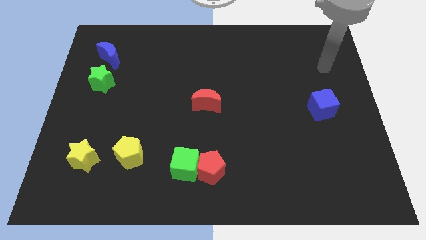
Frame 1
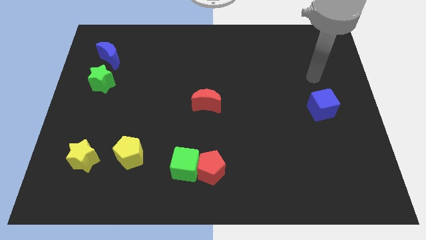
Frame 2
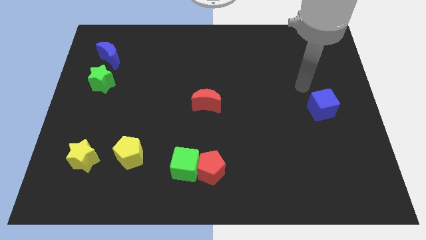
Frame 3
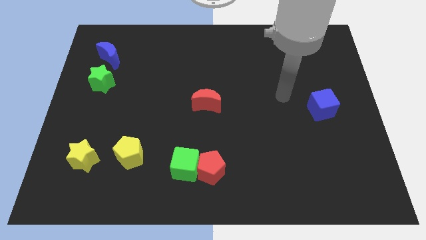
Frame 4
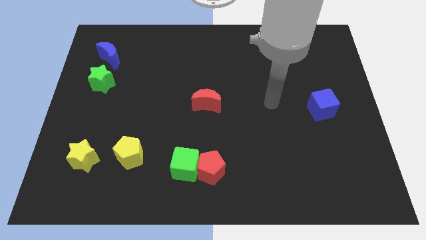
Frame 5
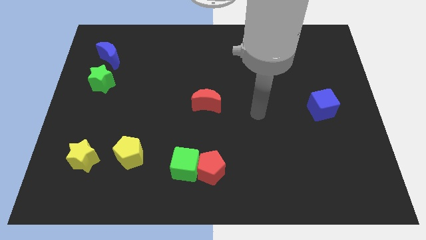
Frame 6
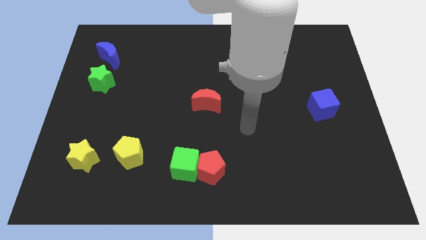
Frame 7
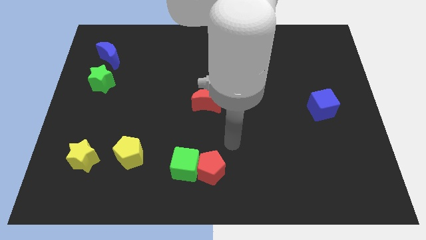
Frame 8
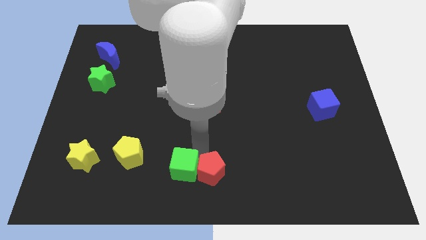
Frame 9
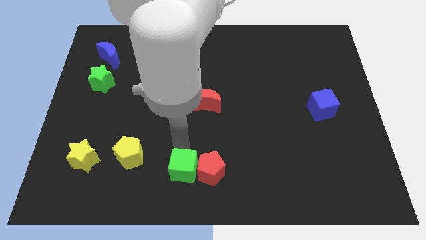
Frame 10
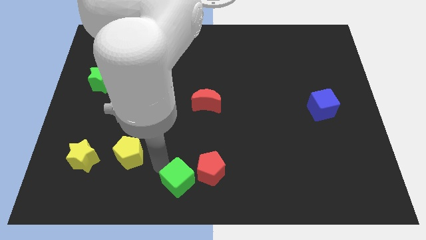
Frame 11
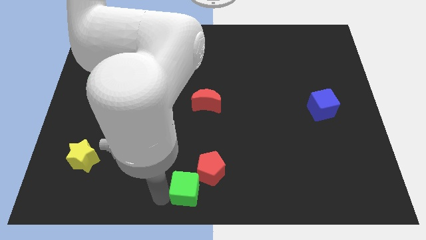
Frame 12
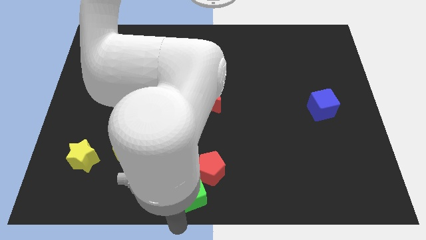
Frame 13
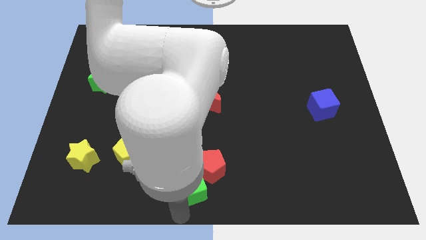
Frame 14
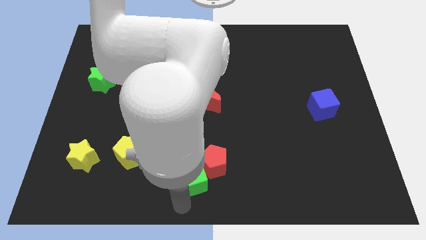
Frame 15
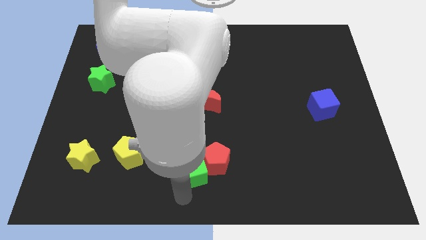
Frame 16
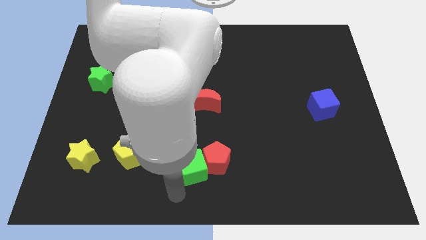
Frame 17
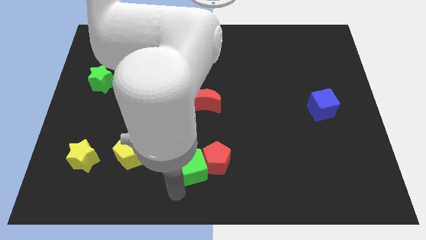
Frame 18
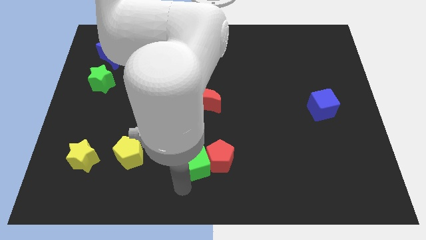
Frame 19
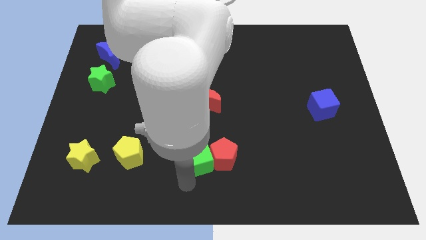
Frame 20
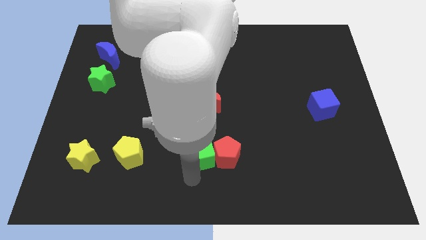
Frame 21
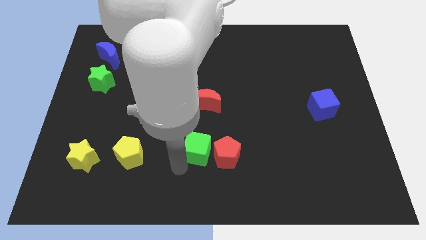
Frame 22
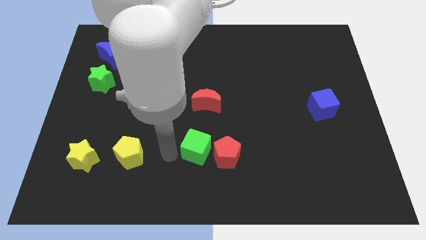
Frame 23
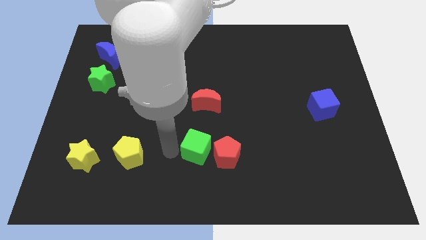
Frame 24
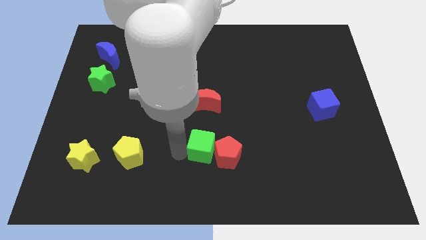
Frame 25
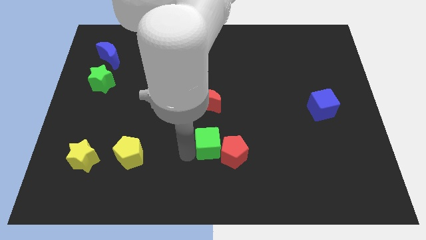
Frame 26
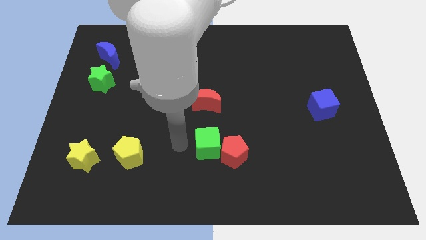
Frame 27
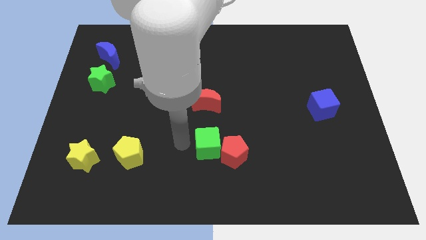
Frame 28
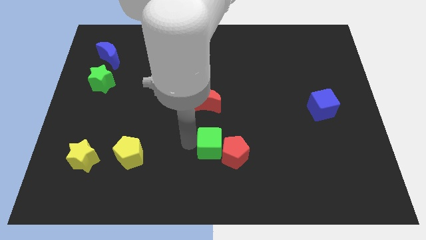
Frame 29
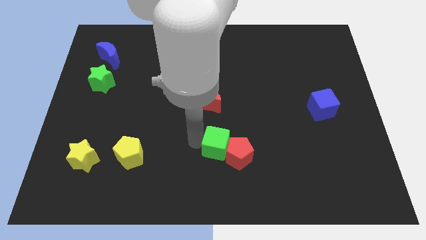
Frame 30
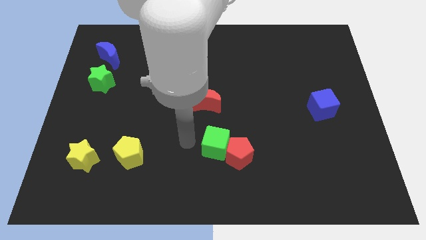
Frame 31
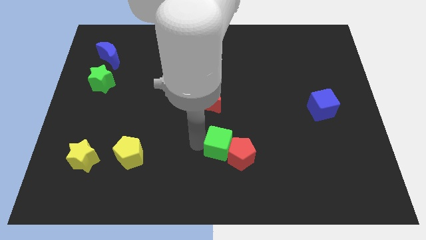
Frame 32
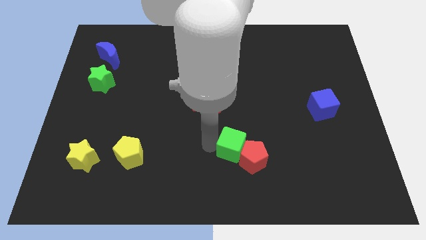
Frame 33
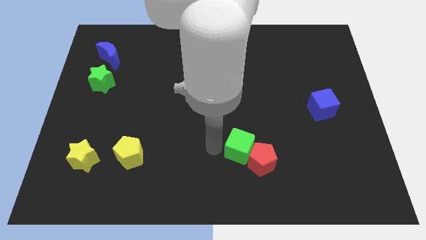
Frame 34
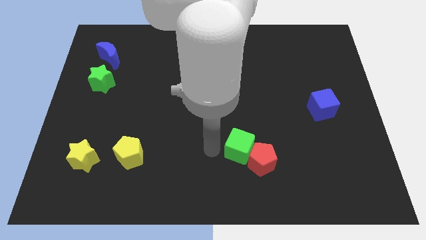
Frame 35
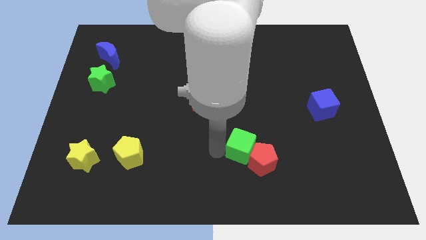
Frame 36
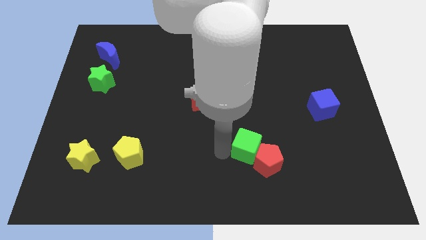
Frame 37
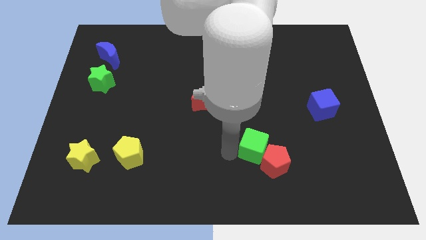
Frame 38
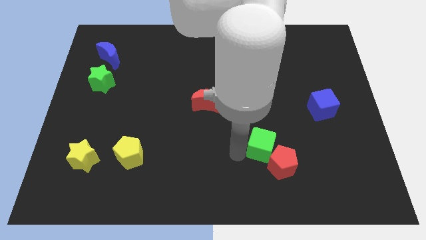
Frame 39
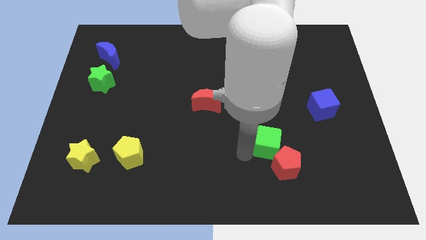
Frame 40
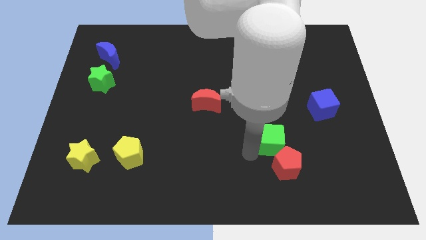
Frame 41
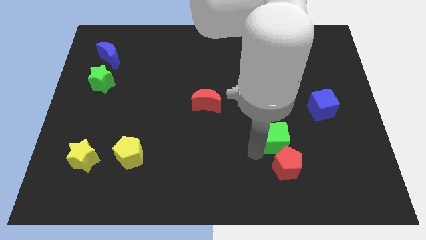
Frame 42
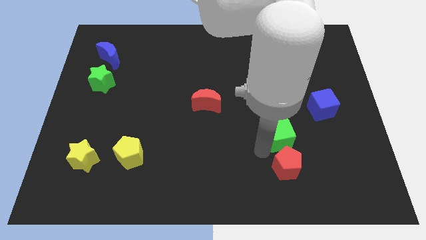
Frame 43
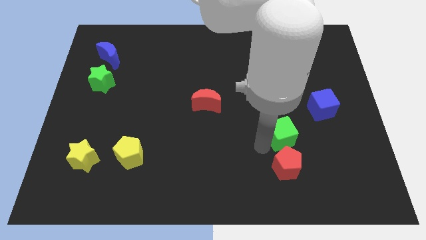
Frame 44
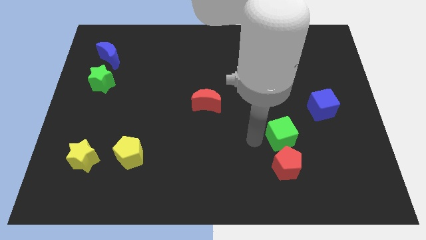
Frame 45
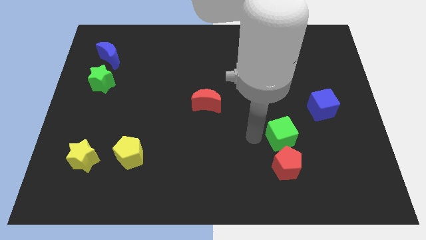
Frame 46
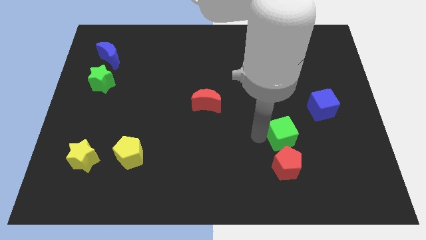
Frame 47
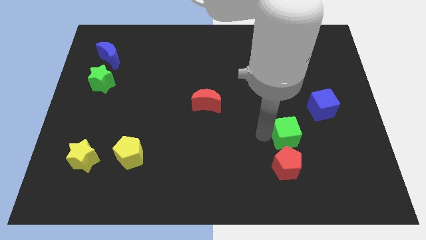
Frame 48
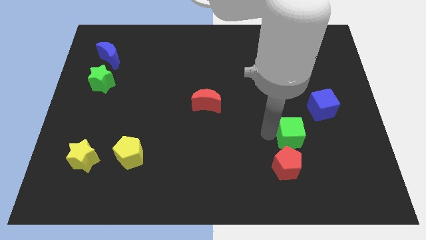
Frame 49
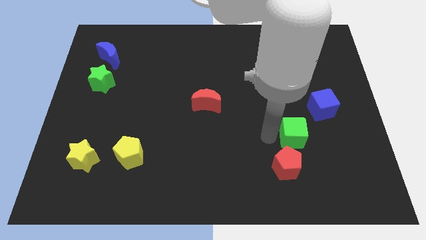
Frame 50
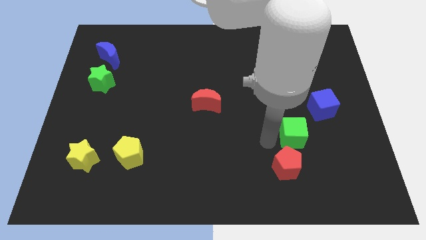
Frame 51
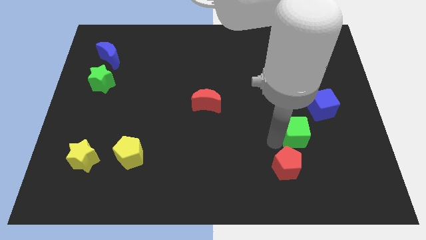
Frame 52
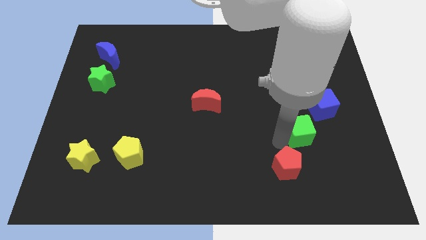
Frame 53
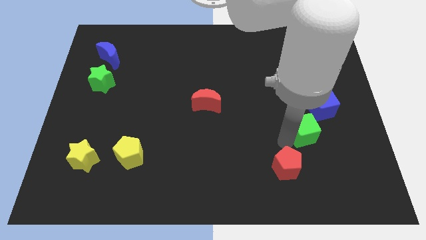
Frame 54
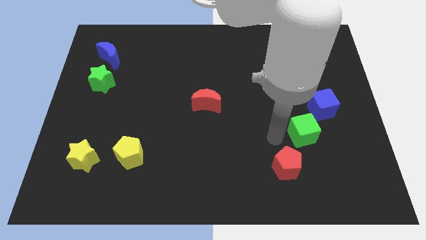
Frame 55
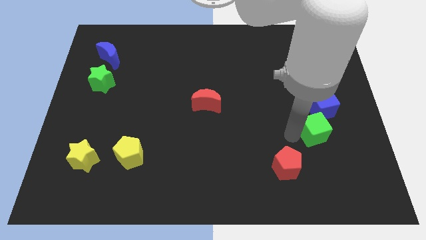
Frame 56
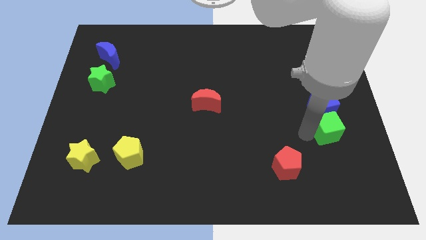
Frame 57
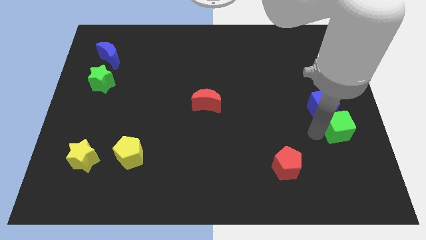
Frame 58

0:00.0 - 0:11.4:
push the green cube to the right side of the board

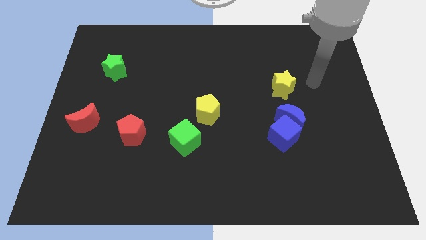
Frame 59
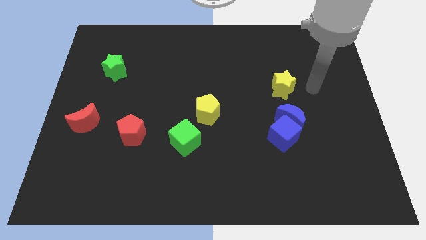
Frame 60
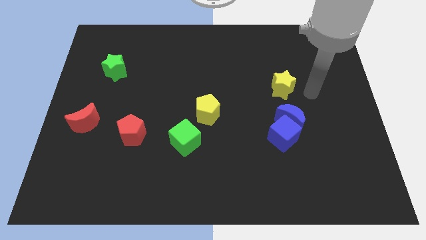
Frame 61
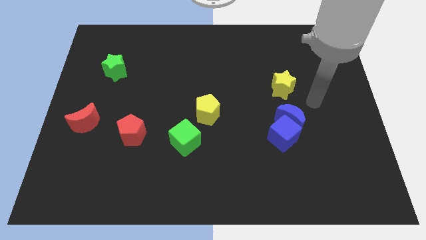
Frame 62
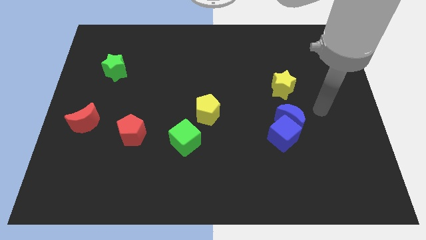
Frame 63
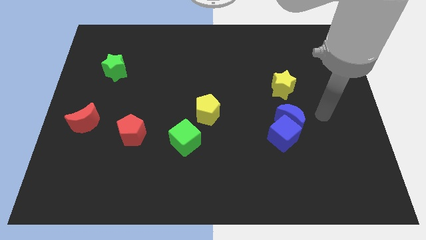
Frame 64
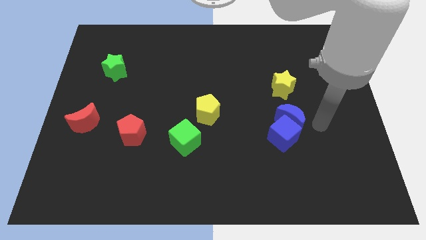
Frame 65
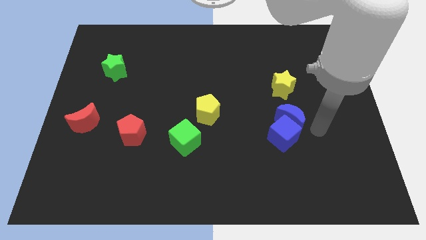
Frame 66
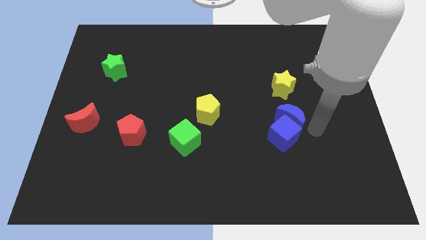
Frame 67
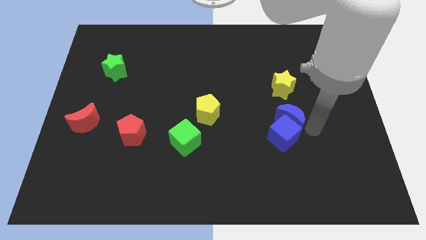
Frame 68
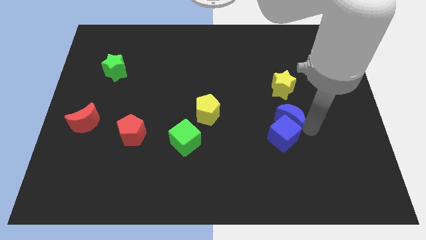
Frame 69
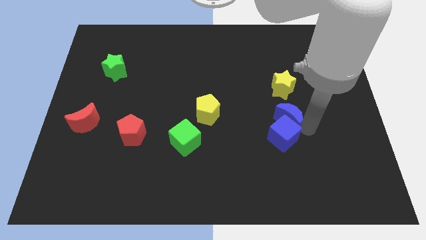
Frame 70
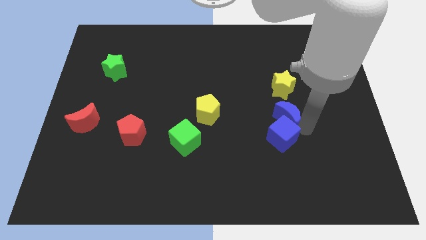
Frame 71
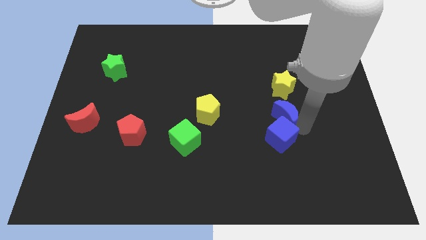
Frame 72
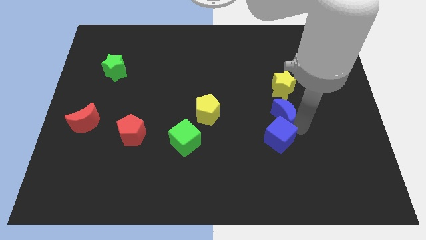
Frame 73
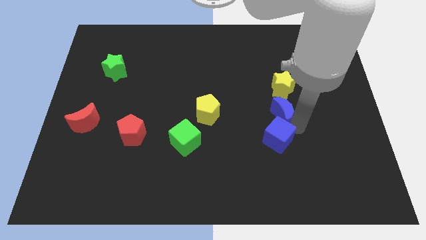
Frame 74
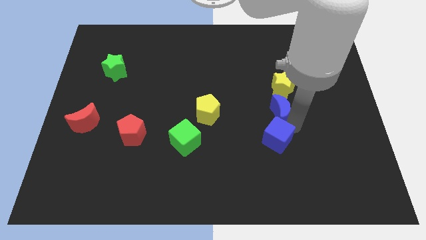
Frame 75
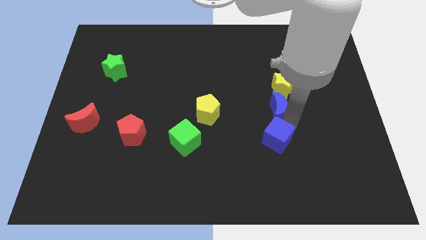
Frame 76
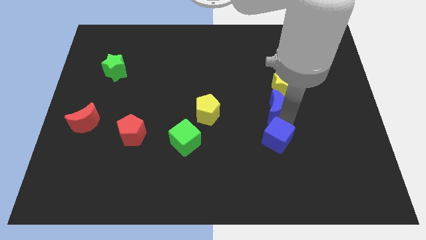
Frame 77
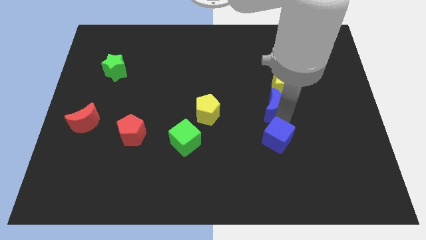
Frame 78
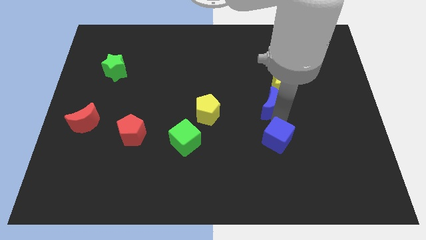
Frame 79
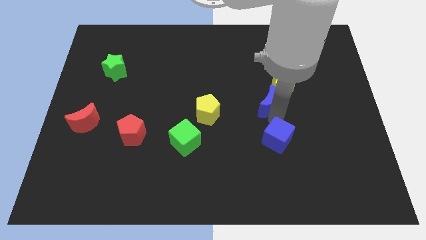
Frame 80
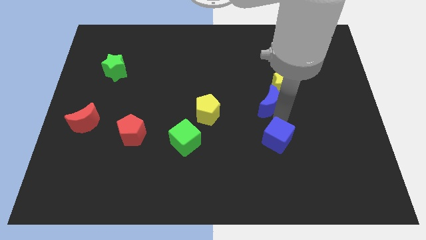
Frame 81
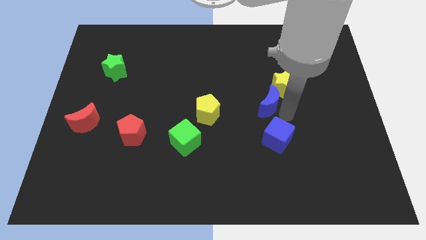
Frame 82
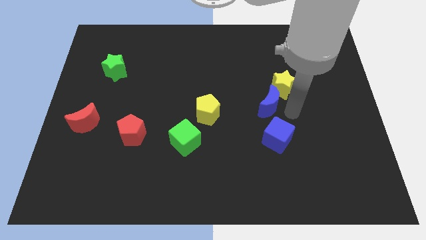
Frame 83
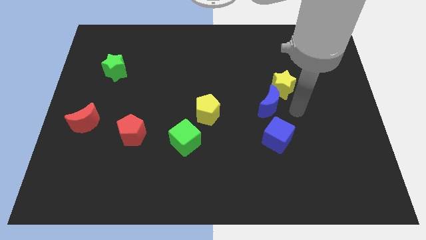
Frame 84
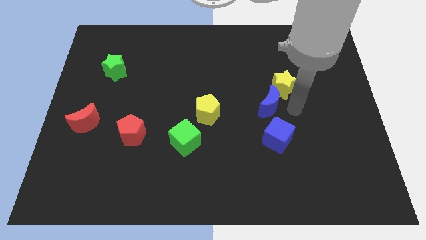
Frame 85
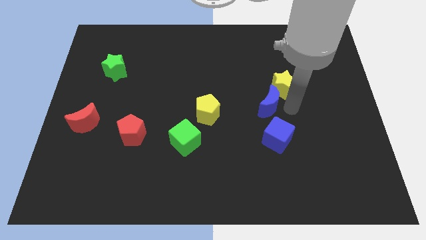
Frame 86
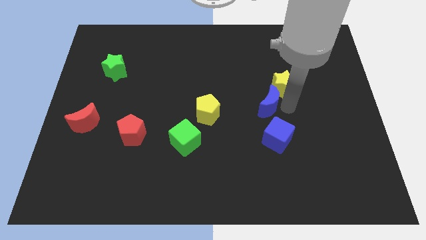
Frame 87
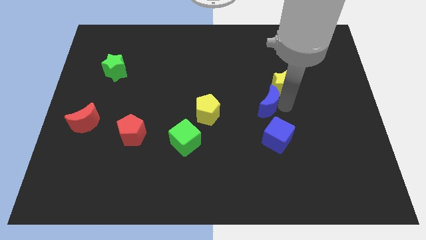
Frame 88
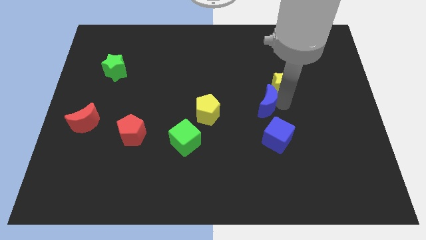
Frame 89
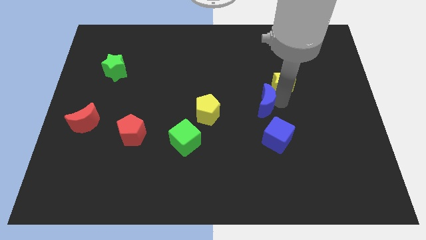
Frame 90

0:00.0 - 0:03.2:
put the blue moon to the center
